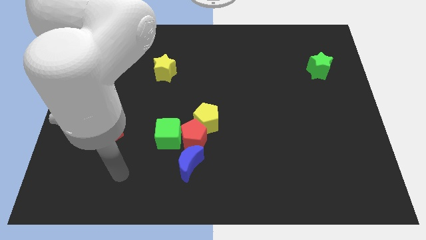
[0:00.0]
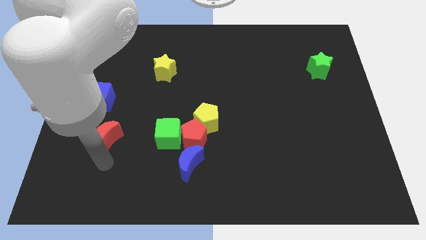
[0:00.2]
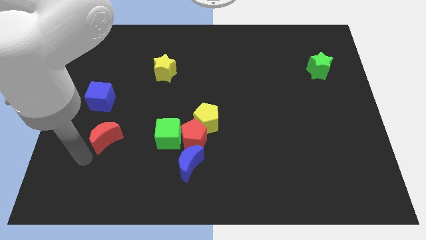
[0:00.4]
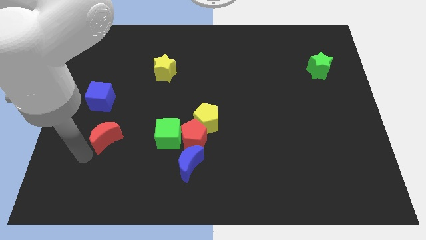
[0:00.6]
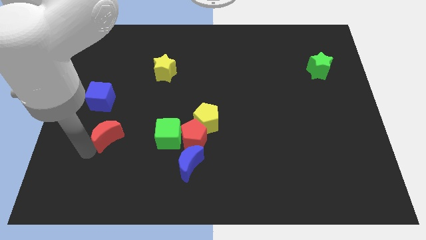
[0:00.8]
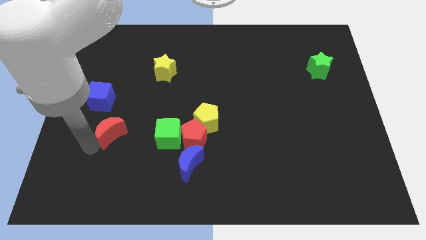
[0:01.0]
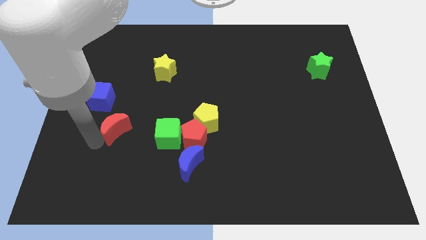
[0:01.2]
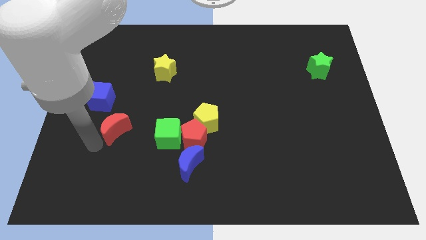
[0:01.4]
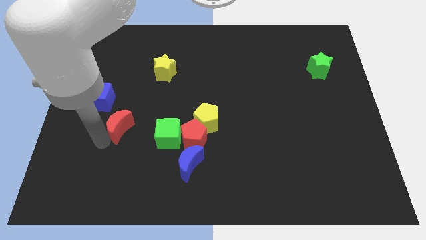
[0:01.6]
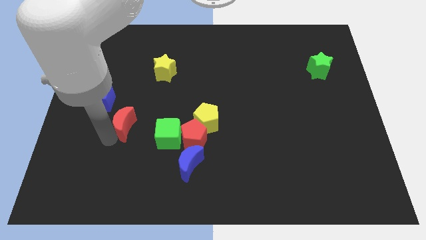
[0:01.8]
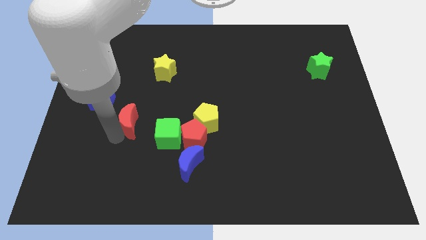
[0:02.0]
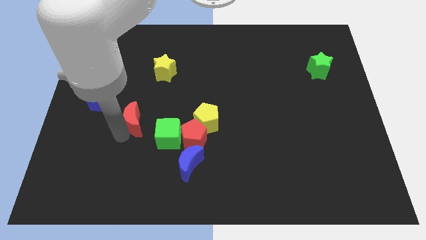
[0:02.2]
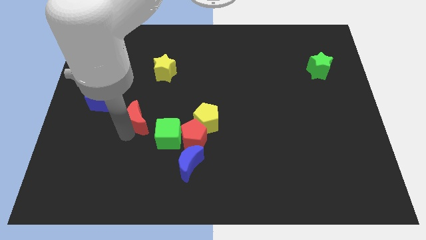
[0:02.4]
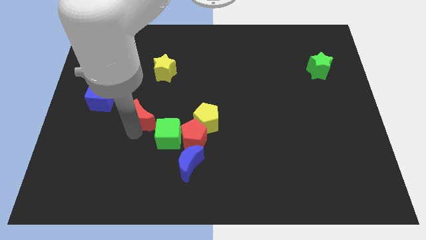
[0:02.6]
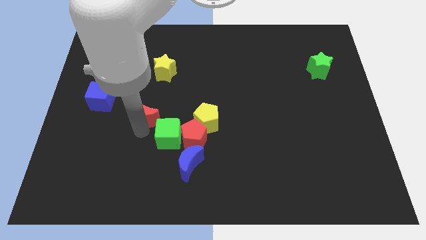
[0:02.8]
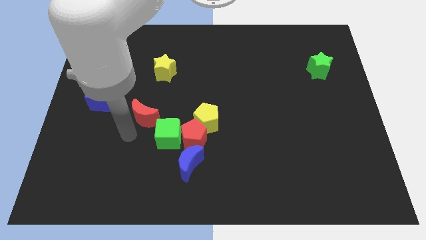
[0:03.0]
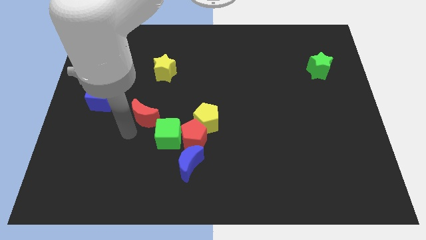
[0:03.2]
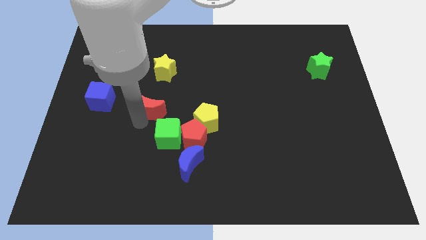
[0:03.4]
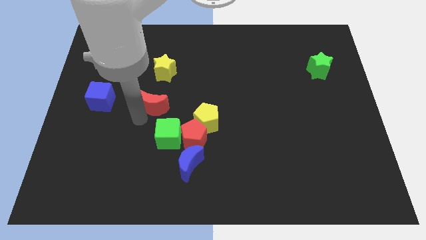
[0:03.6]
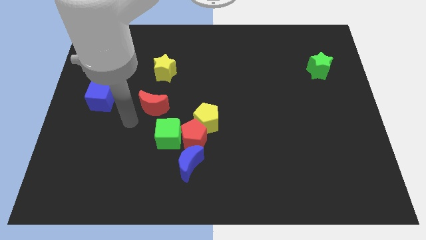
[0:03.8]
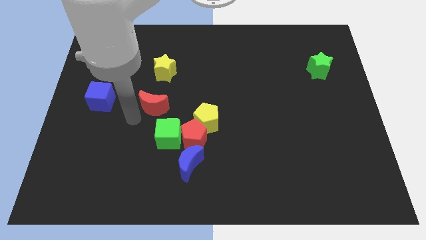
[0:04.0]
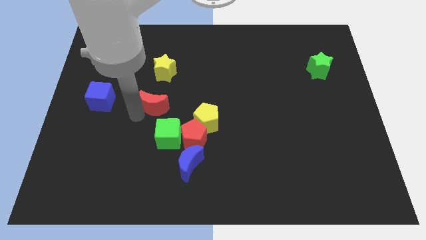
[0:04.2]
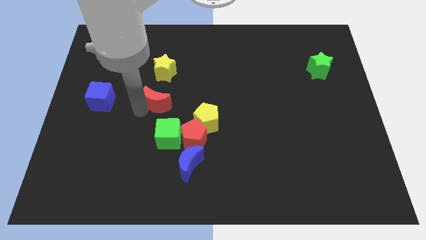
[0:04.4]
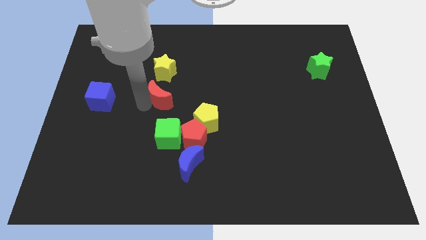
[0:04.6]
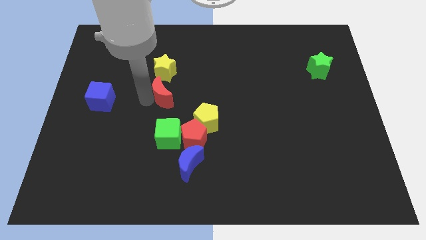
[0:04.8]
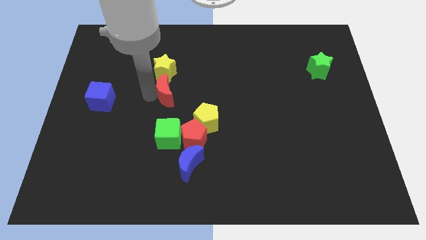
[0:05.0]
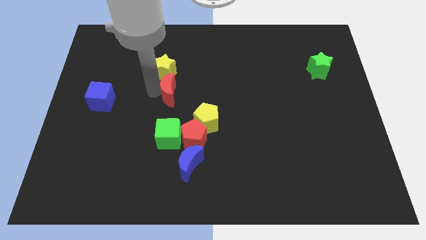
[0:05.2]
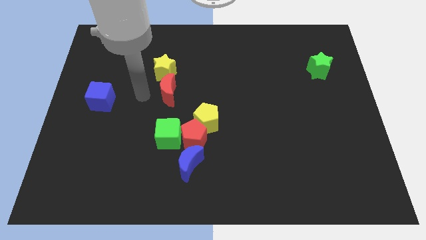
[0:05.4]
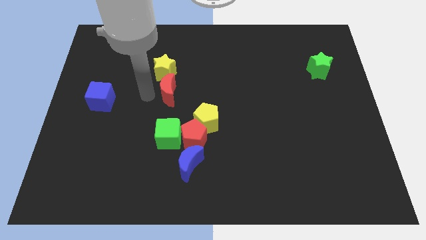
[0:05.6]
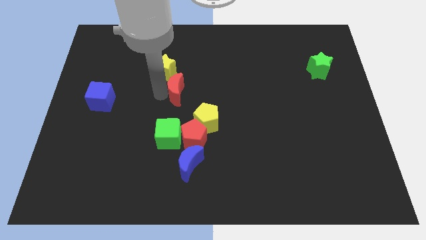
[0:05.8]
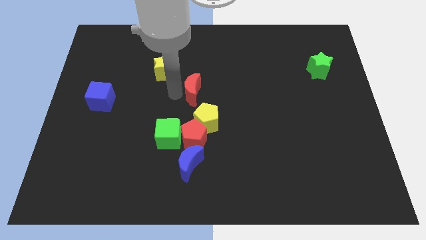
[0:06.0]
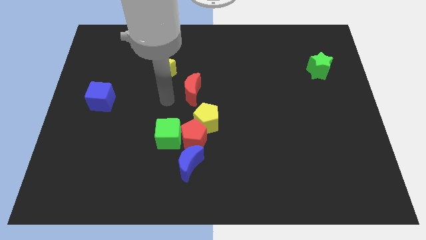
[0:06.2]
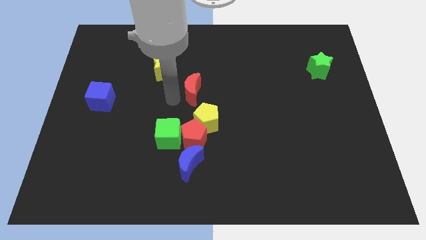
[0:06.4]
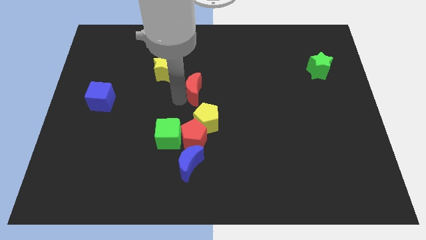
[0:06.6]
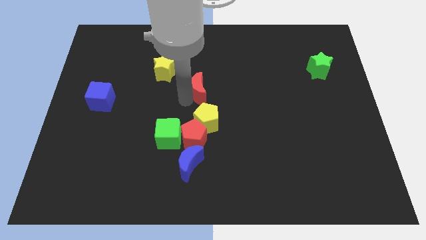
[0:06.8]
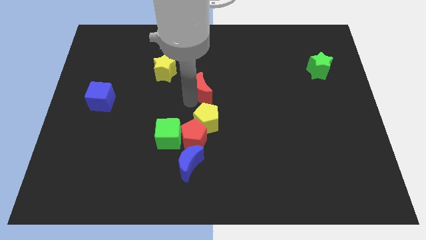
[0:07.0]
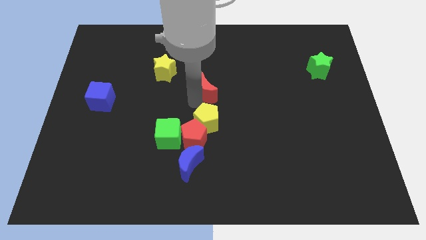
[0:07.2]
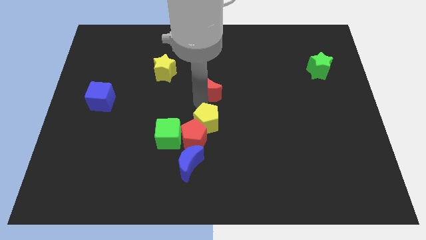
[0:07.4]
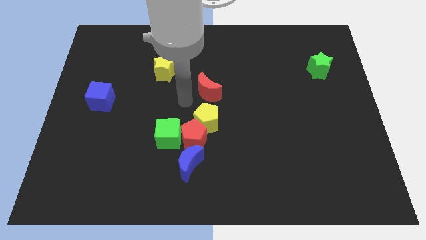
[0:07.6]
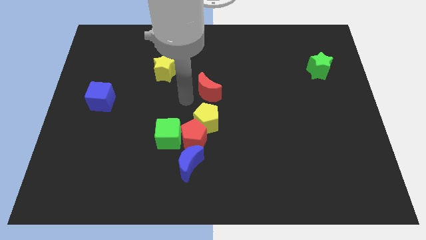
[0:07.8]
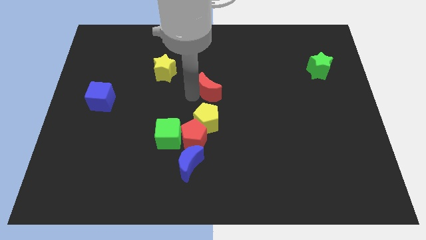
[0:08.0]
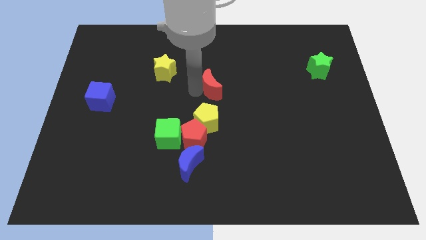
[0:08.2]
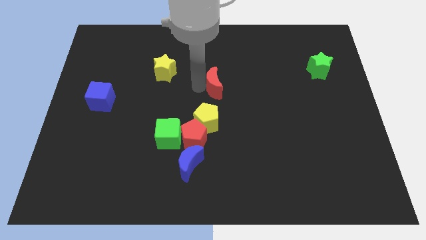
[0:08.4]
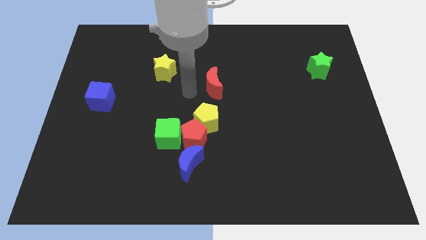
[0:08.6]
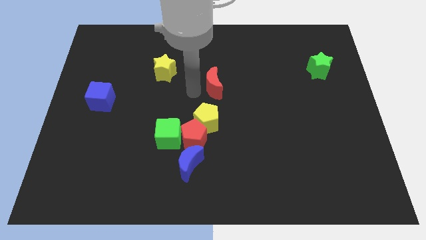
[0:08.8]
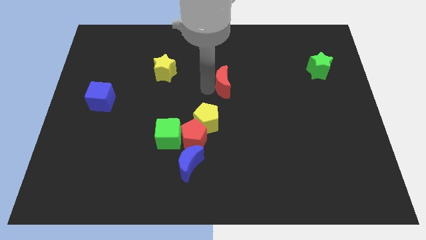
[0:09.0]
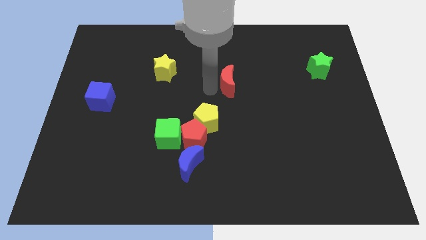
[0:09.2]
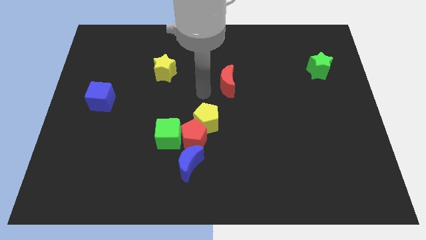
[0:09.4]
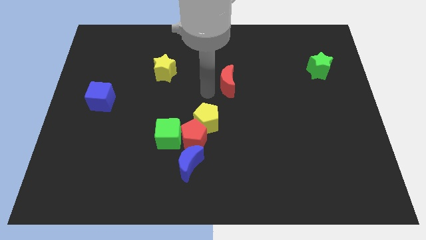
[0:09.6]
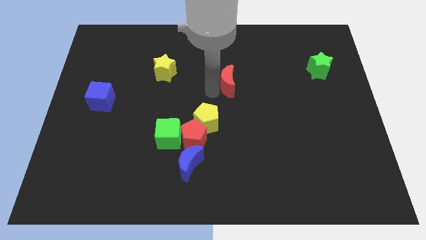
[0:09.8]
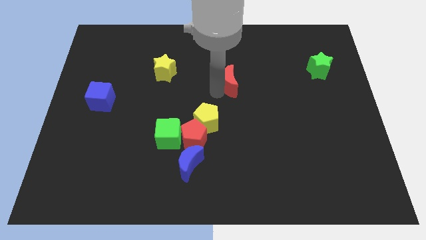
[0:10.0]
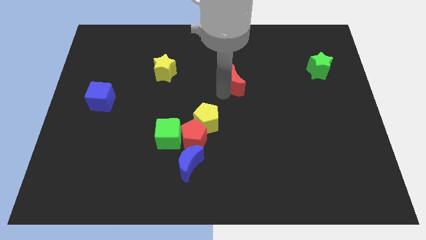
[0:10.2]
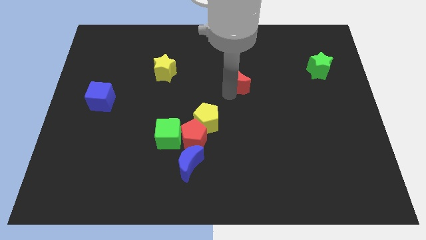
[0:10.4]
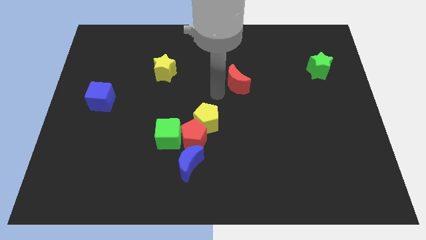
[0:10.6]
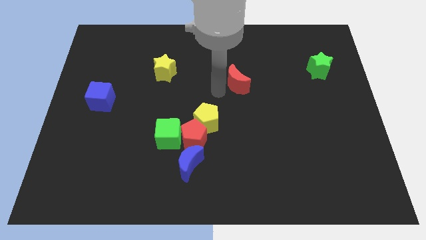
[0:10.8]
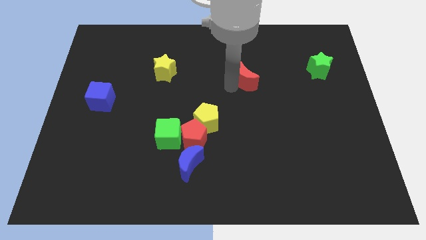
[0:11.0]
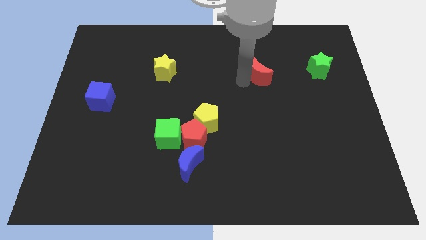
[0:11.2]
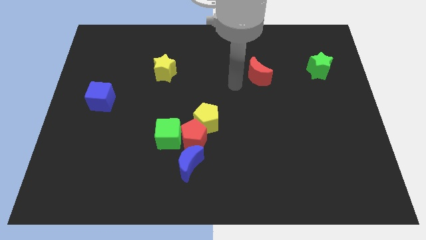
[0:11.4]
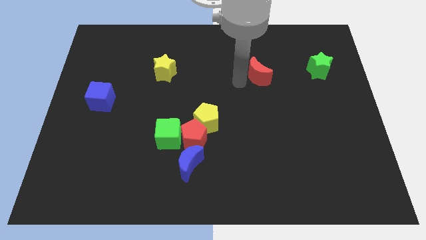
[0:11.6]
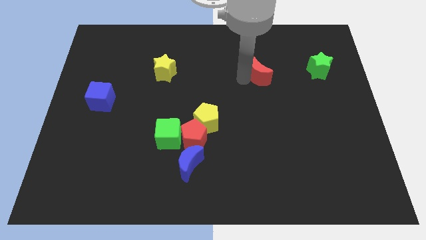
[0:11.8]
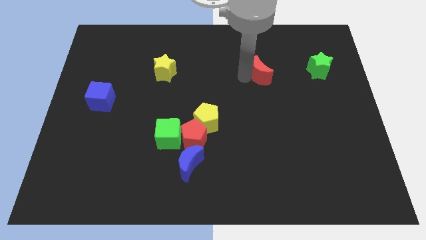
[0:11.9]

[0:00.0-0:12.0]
move the red moon to the left of the green star

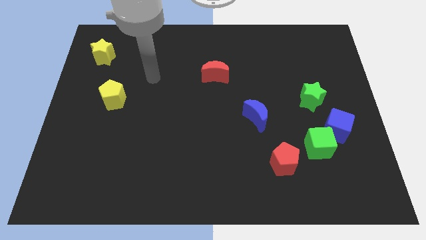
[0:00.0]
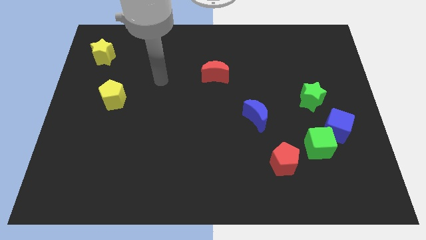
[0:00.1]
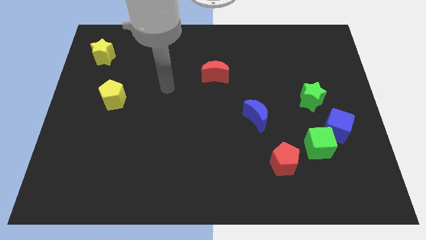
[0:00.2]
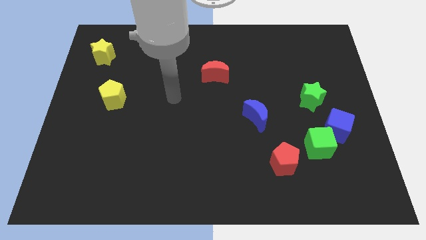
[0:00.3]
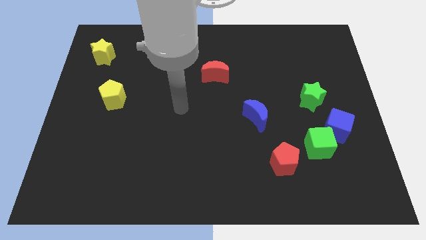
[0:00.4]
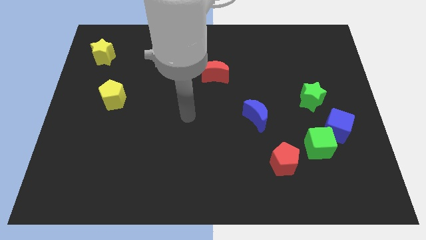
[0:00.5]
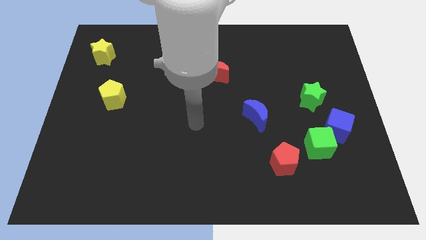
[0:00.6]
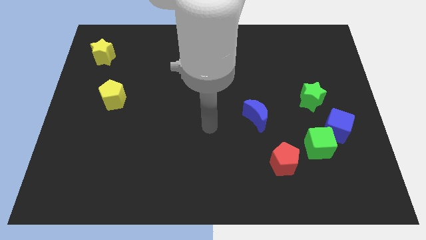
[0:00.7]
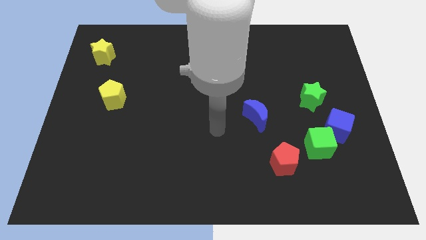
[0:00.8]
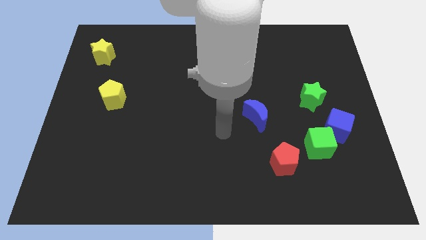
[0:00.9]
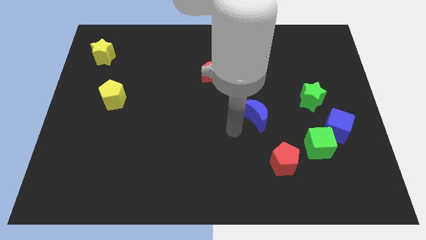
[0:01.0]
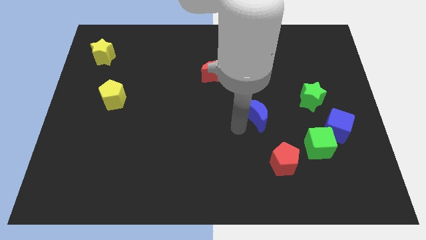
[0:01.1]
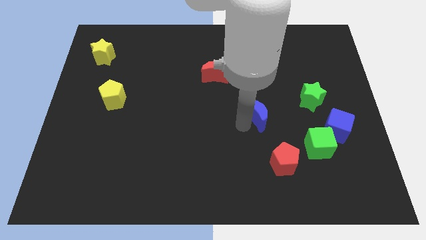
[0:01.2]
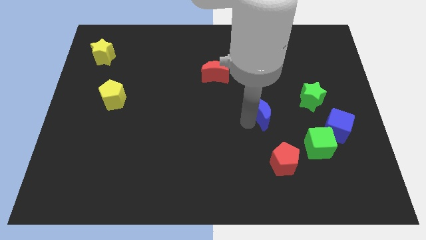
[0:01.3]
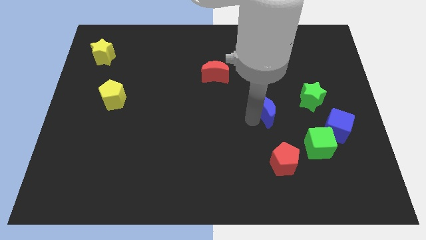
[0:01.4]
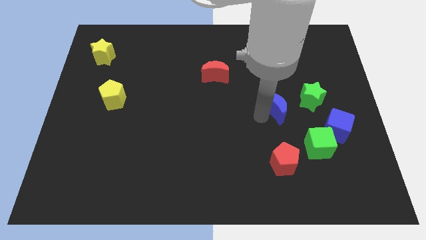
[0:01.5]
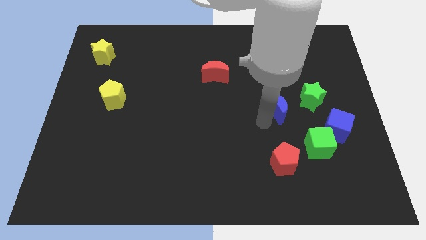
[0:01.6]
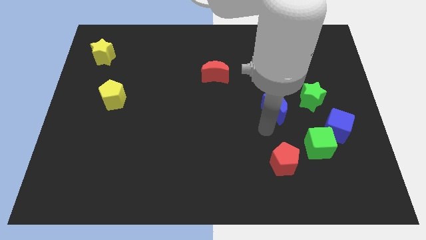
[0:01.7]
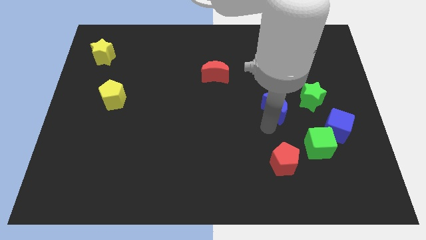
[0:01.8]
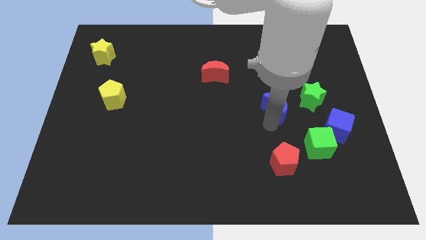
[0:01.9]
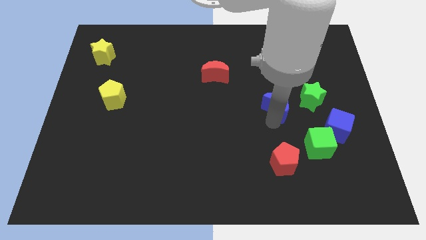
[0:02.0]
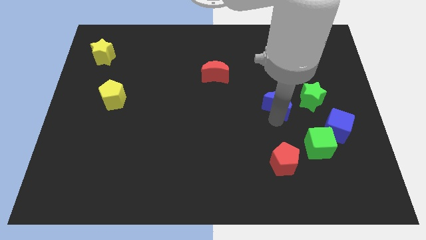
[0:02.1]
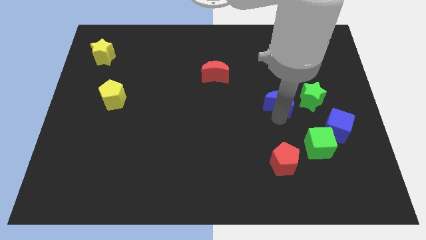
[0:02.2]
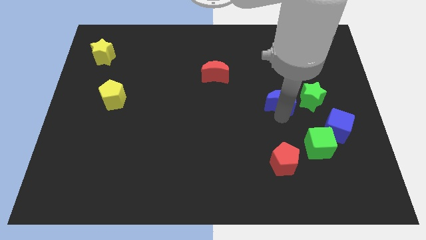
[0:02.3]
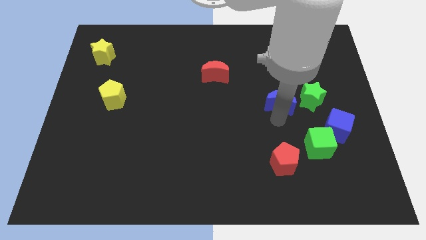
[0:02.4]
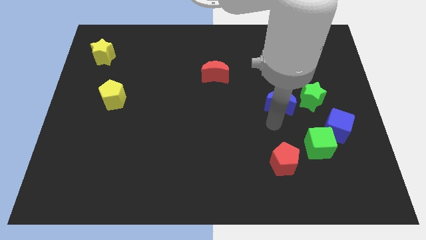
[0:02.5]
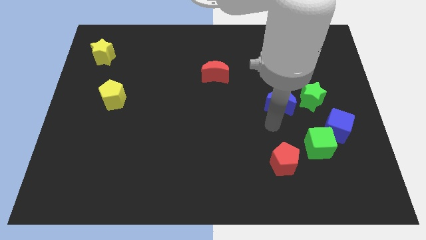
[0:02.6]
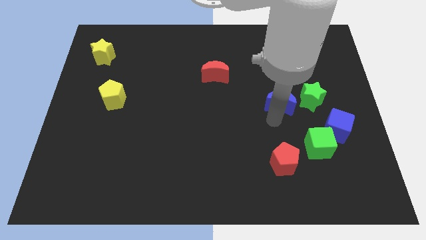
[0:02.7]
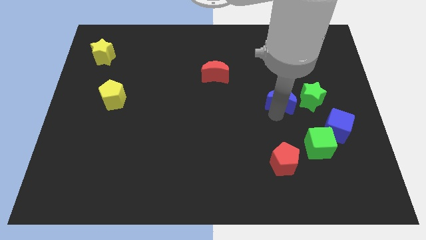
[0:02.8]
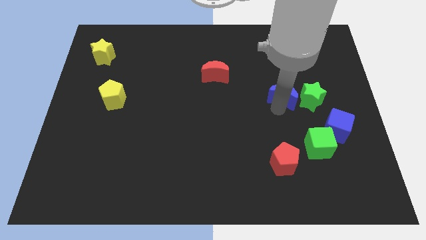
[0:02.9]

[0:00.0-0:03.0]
put the blue moon to the top left side of the green star
